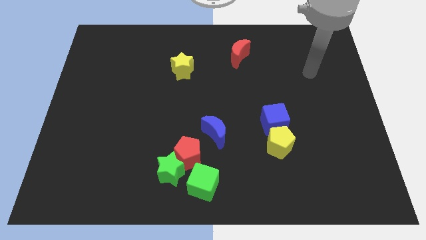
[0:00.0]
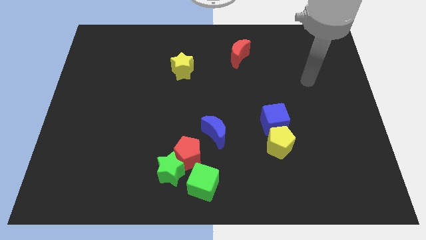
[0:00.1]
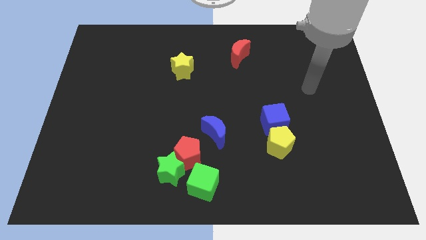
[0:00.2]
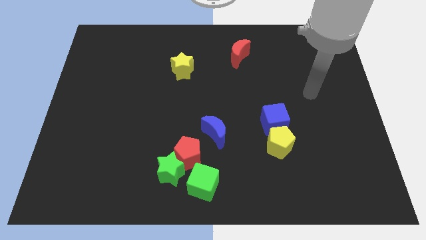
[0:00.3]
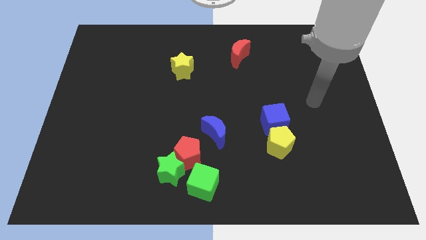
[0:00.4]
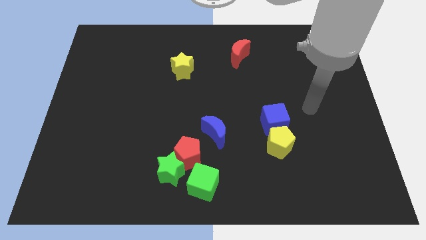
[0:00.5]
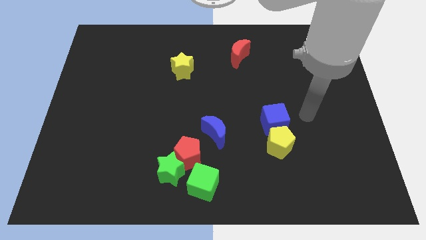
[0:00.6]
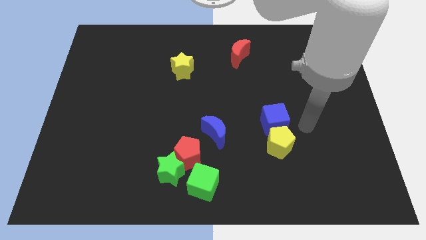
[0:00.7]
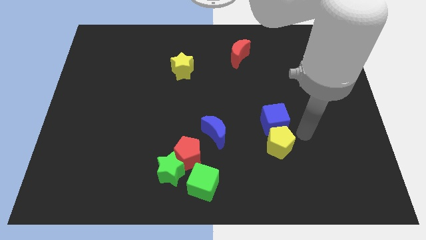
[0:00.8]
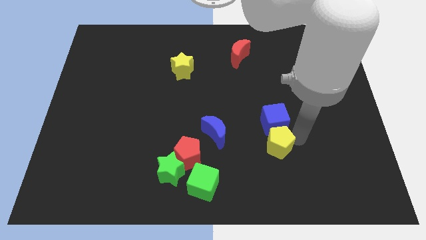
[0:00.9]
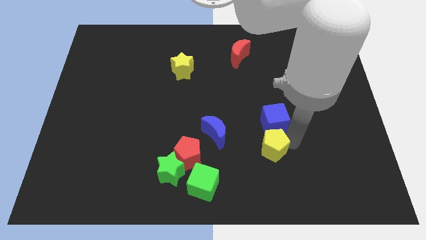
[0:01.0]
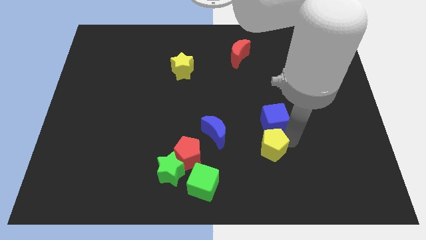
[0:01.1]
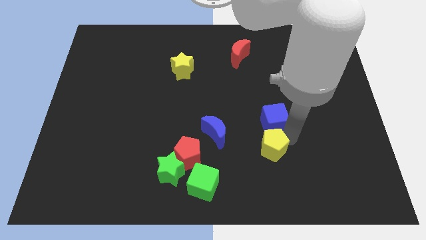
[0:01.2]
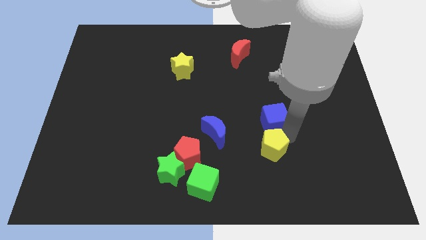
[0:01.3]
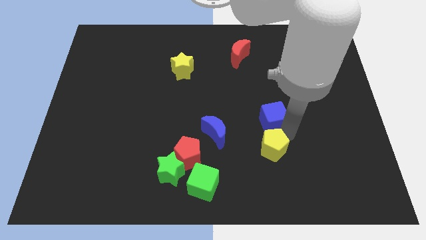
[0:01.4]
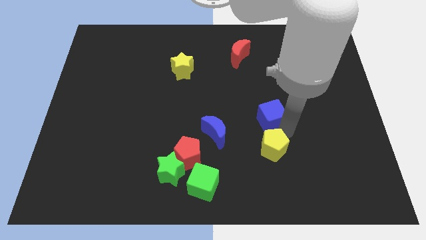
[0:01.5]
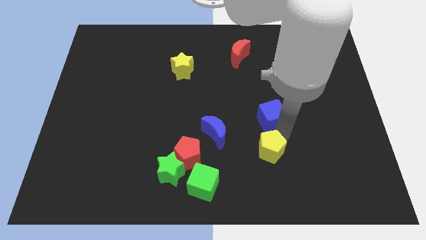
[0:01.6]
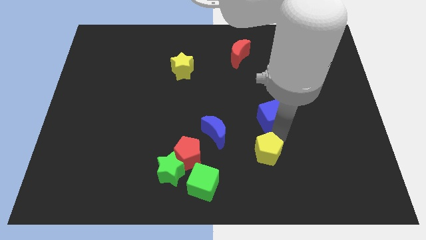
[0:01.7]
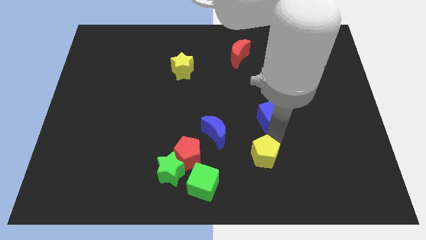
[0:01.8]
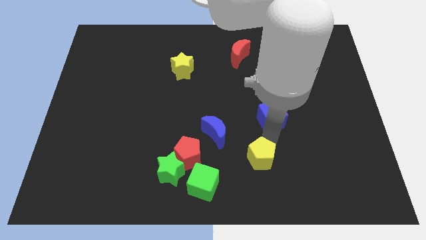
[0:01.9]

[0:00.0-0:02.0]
move the blue cube away from the yellow pentagon

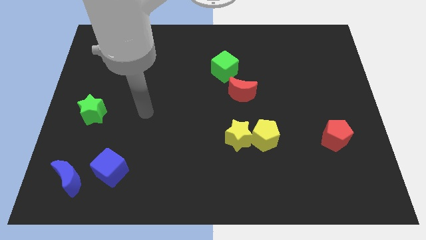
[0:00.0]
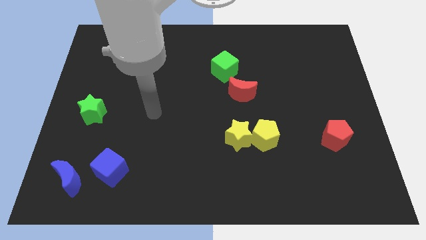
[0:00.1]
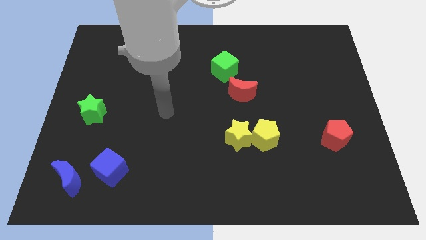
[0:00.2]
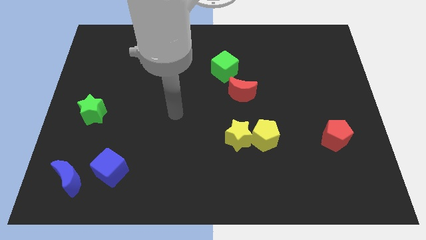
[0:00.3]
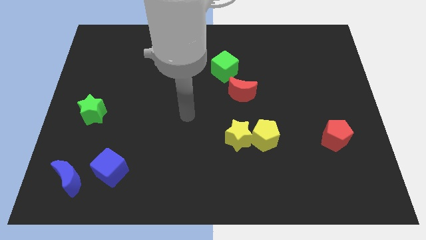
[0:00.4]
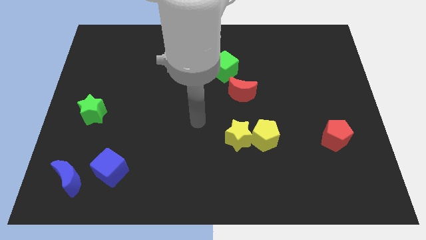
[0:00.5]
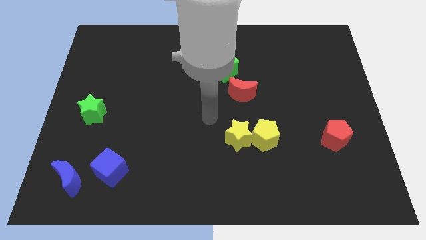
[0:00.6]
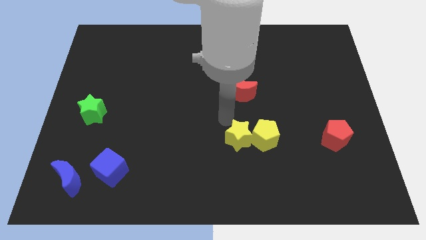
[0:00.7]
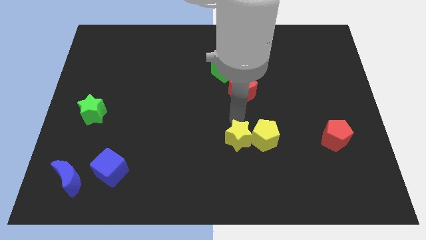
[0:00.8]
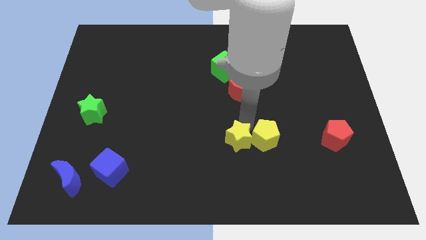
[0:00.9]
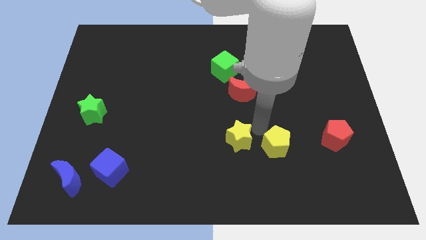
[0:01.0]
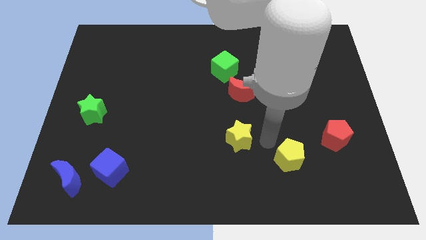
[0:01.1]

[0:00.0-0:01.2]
separate the yellow star from the yellow pentagon

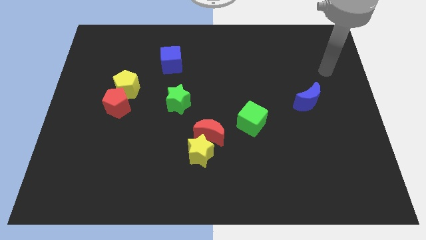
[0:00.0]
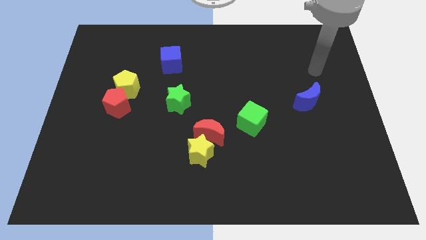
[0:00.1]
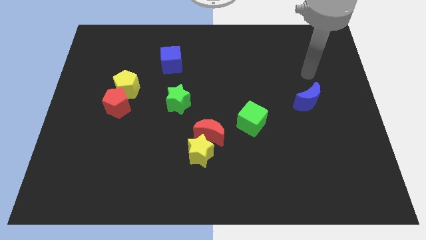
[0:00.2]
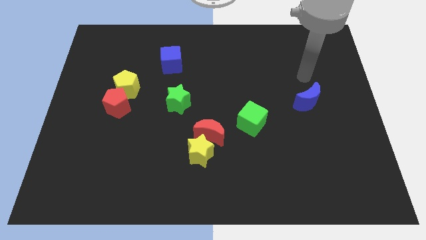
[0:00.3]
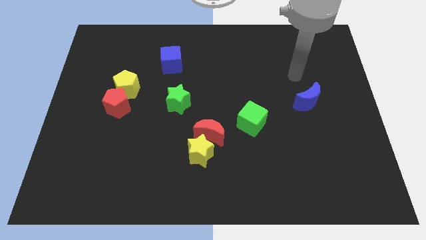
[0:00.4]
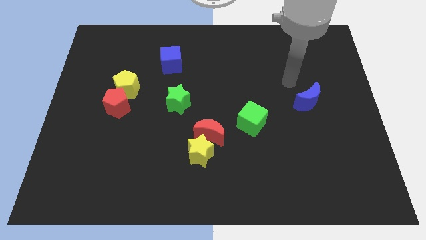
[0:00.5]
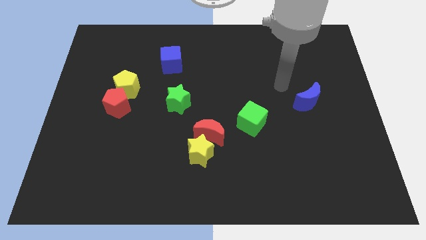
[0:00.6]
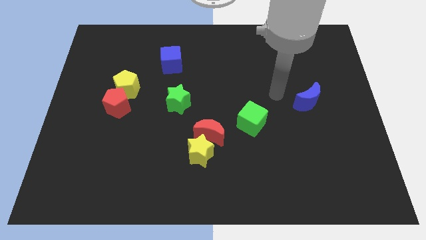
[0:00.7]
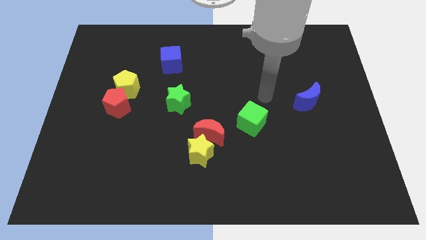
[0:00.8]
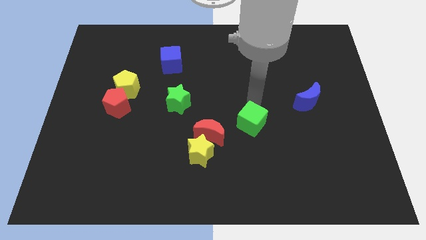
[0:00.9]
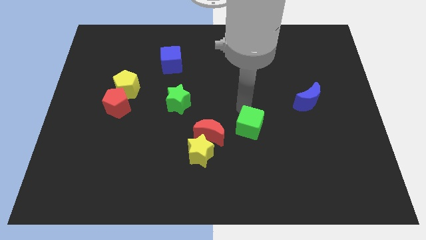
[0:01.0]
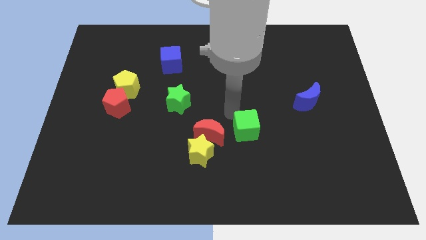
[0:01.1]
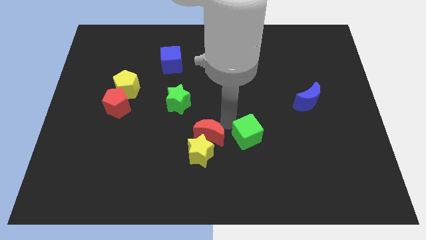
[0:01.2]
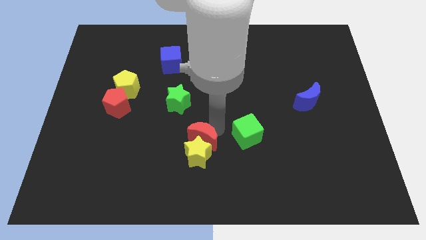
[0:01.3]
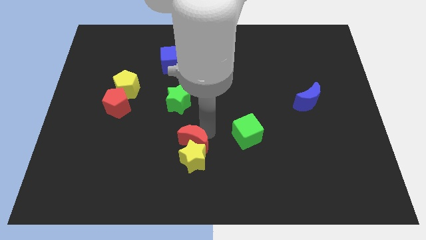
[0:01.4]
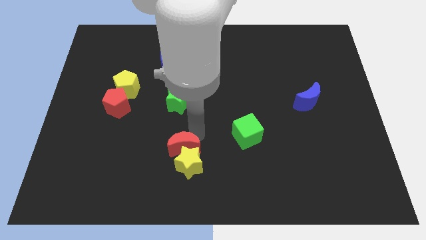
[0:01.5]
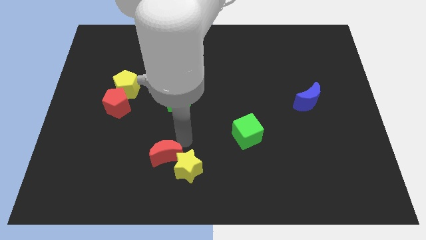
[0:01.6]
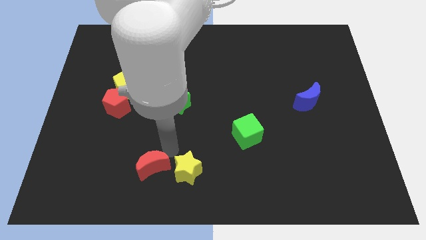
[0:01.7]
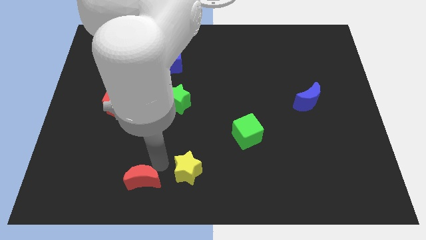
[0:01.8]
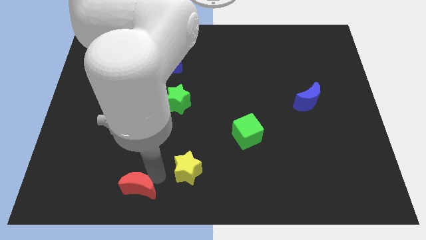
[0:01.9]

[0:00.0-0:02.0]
move the yellow star away from the red moon

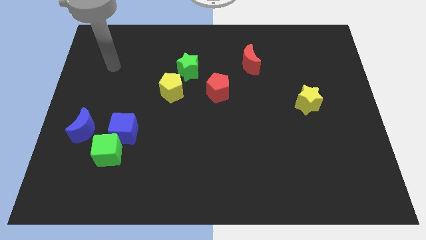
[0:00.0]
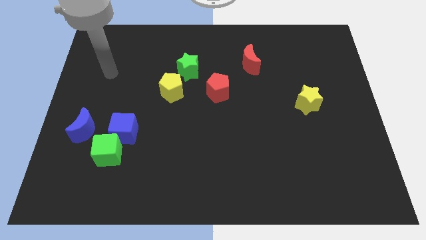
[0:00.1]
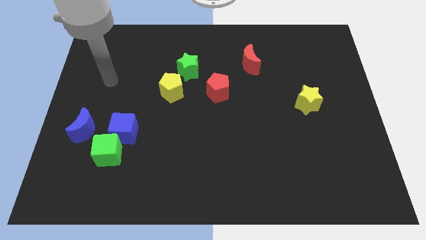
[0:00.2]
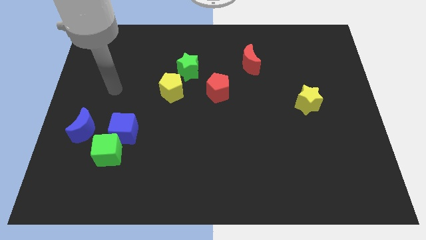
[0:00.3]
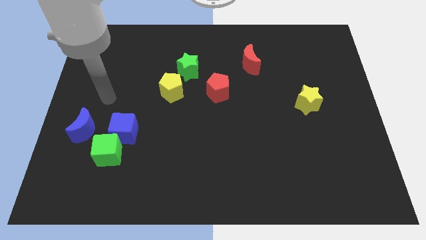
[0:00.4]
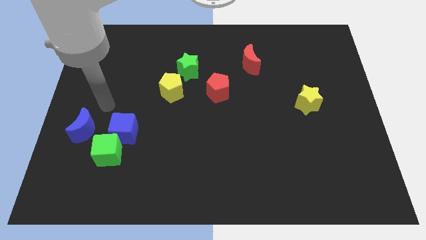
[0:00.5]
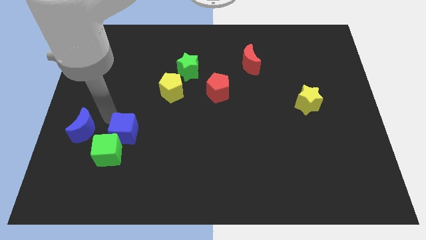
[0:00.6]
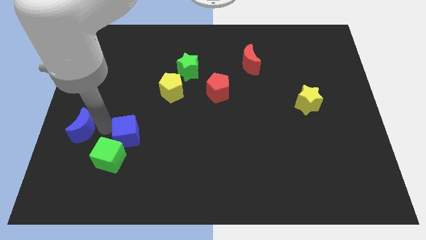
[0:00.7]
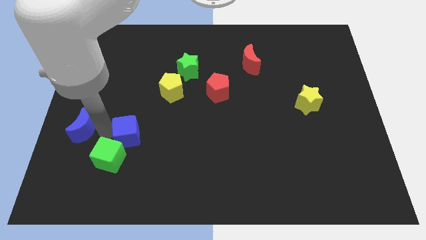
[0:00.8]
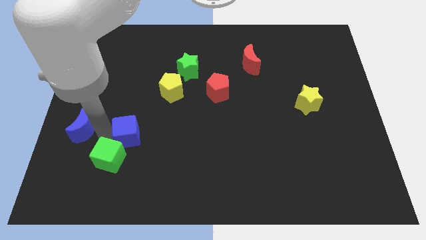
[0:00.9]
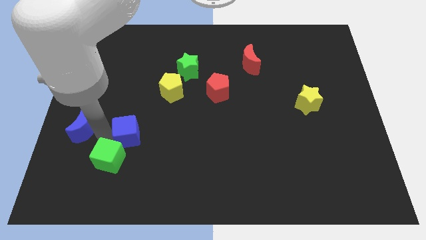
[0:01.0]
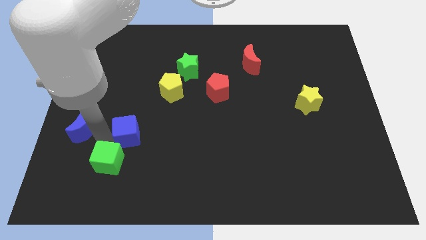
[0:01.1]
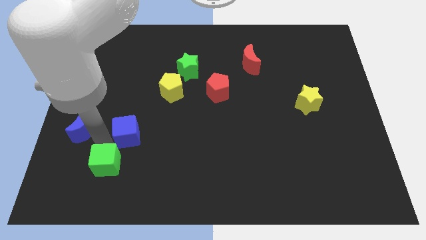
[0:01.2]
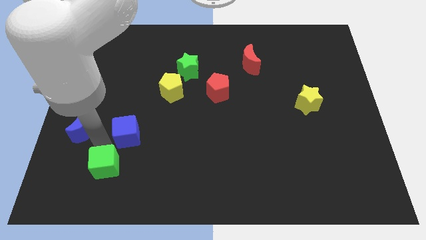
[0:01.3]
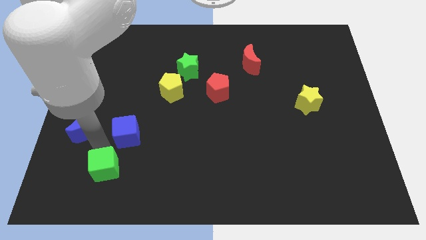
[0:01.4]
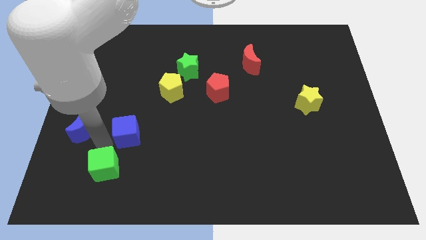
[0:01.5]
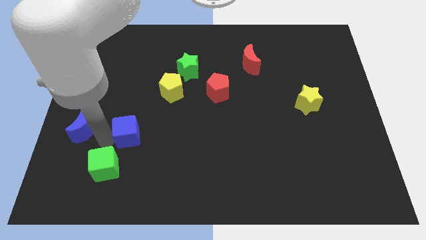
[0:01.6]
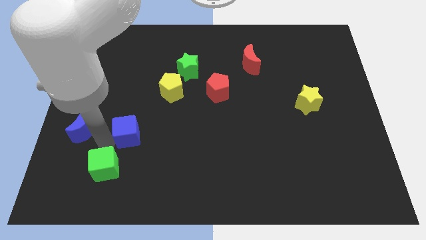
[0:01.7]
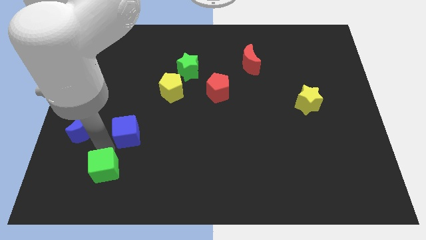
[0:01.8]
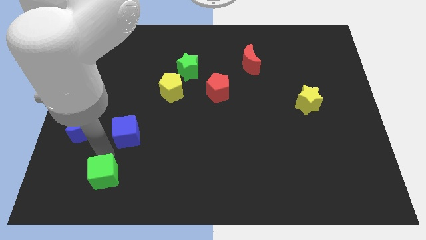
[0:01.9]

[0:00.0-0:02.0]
pull the green cube apart from the blue cube and blue moon

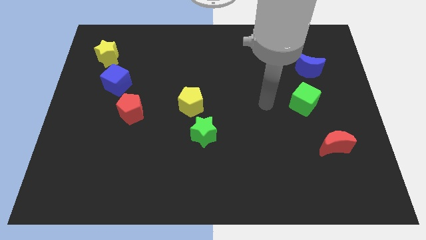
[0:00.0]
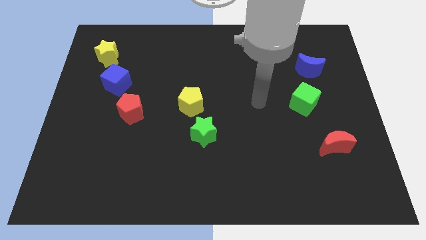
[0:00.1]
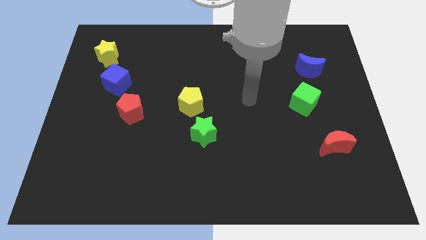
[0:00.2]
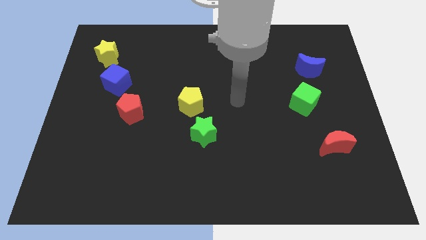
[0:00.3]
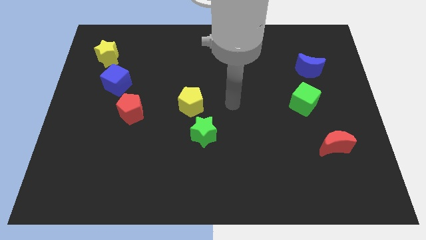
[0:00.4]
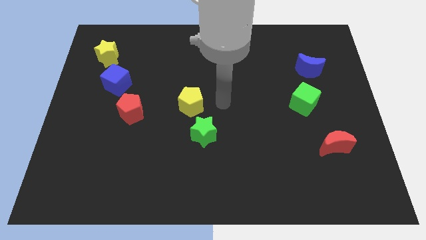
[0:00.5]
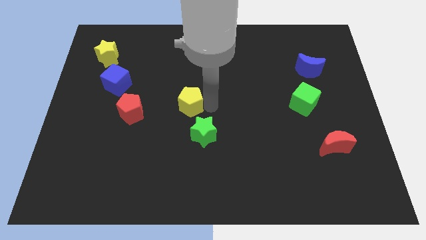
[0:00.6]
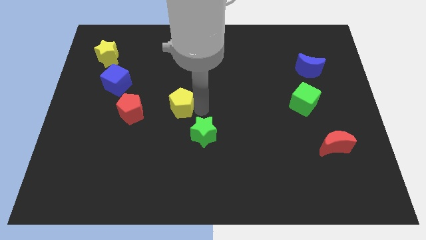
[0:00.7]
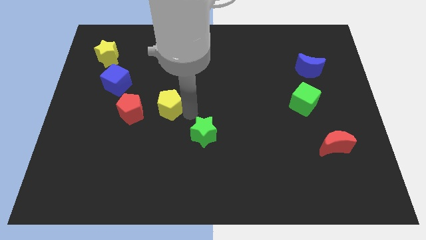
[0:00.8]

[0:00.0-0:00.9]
pull the green star apart from the yellow pentagon

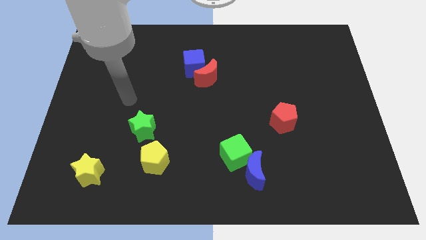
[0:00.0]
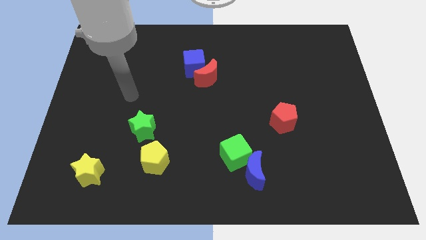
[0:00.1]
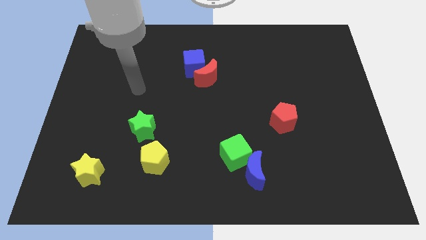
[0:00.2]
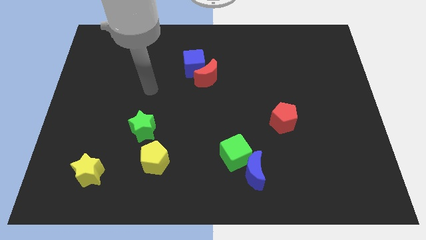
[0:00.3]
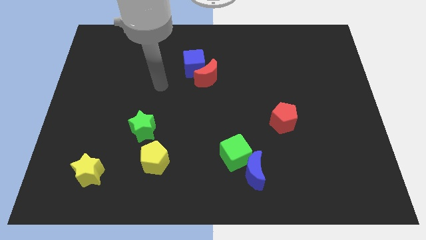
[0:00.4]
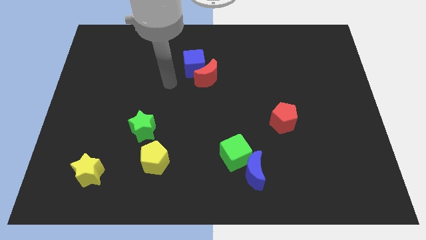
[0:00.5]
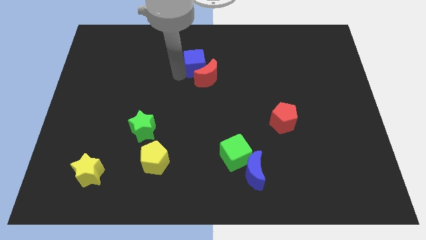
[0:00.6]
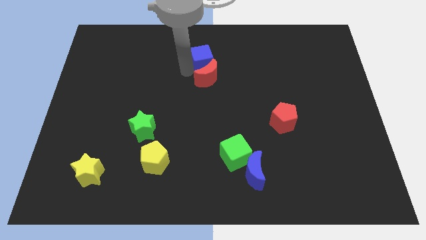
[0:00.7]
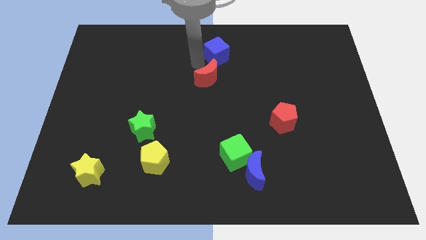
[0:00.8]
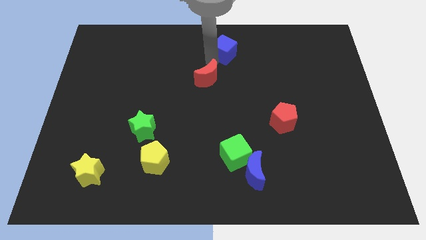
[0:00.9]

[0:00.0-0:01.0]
separate the red moon from the blue cube
